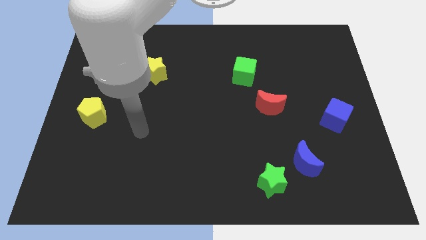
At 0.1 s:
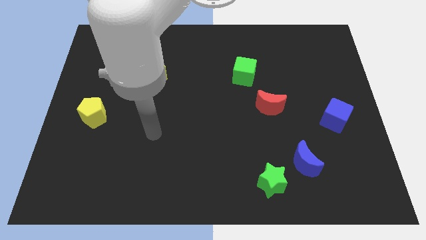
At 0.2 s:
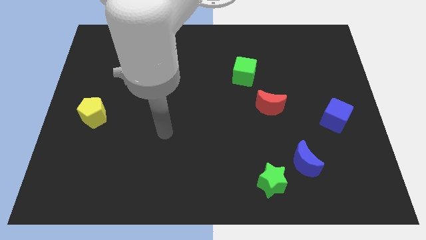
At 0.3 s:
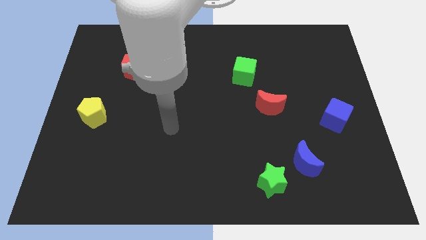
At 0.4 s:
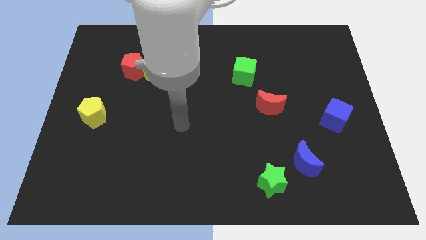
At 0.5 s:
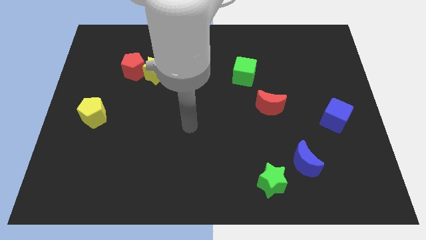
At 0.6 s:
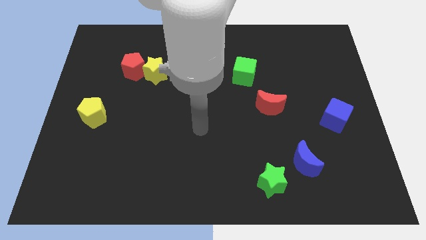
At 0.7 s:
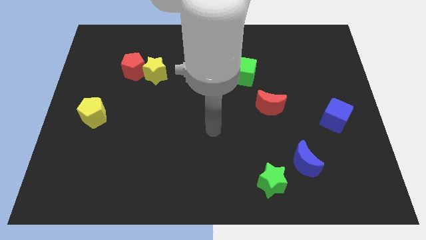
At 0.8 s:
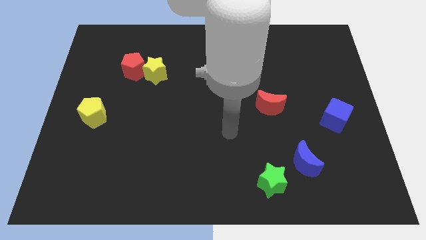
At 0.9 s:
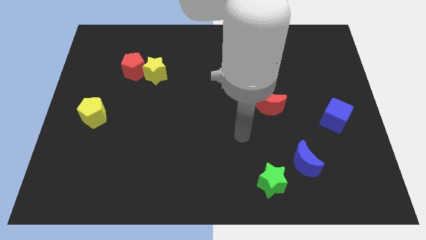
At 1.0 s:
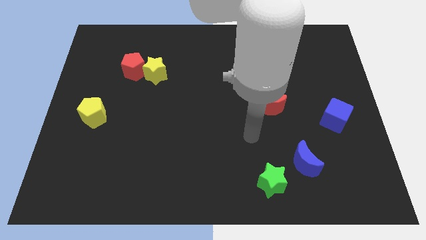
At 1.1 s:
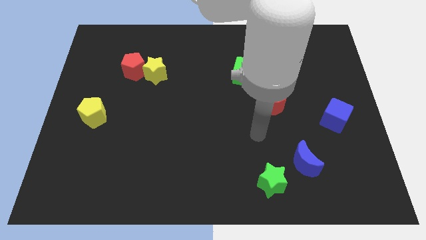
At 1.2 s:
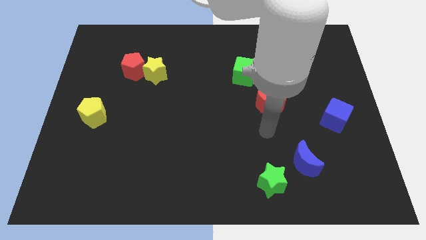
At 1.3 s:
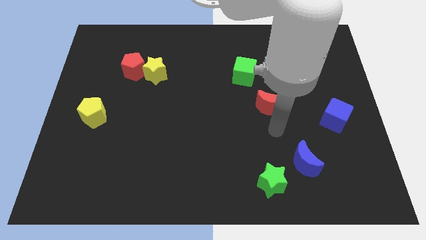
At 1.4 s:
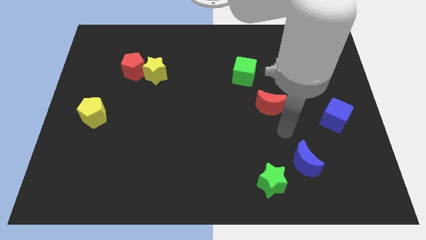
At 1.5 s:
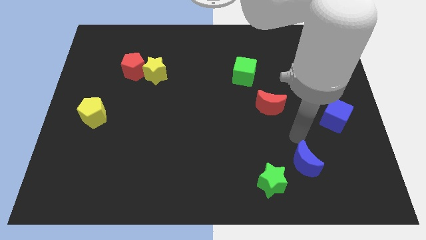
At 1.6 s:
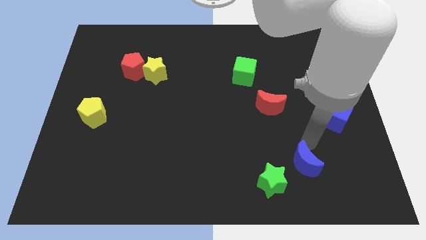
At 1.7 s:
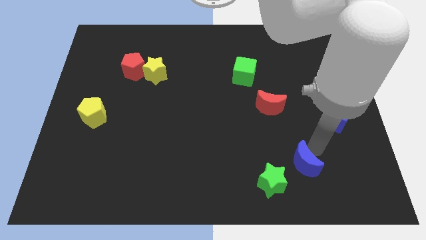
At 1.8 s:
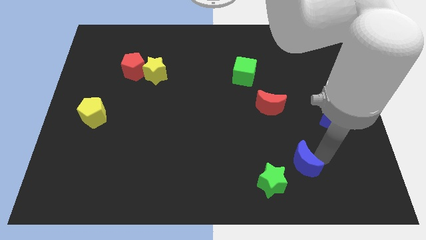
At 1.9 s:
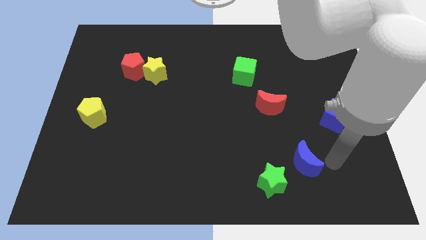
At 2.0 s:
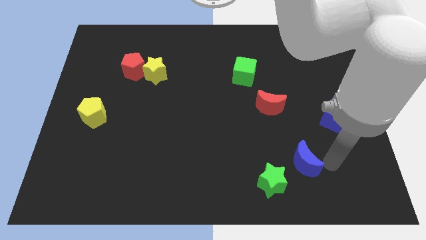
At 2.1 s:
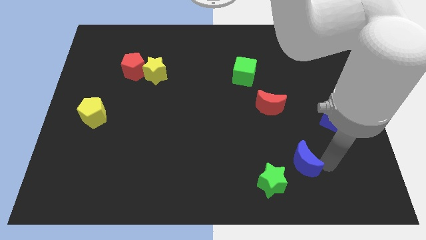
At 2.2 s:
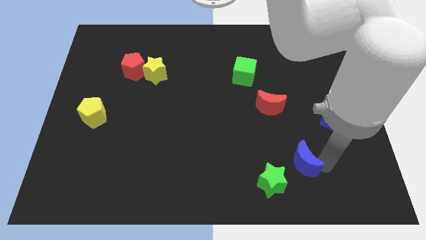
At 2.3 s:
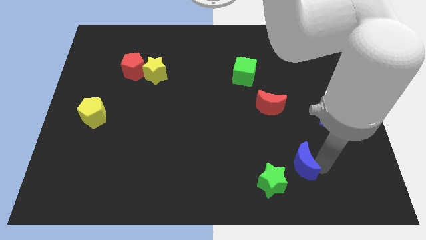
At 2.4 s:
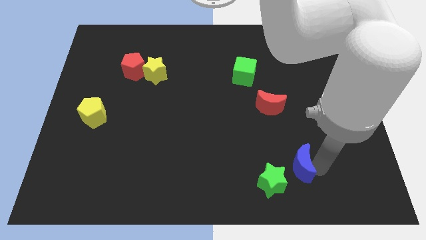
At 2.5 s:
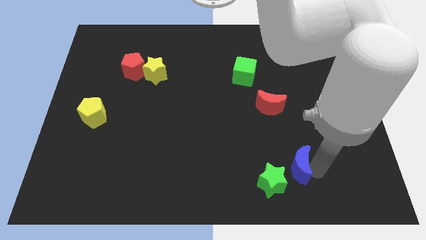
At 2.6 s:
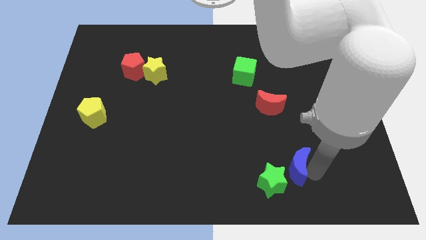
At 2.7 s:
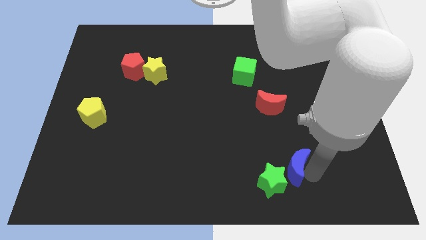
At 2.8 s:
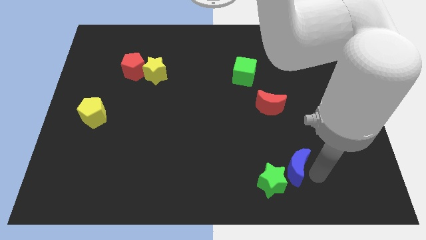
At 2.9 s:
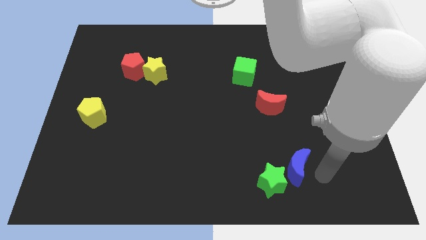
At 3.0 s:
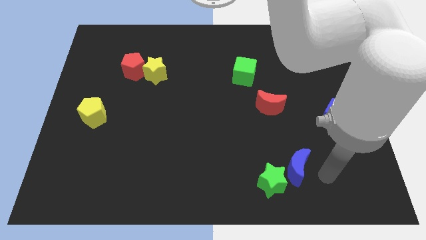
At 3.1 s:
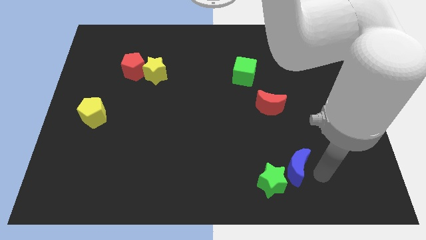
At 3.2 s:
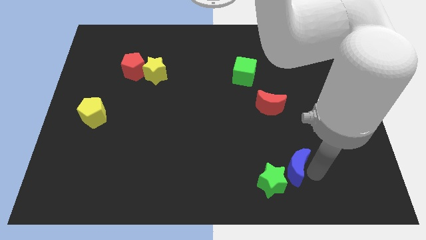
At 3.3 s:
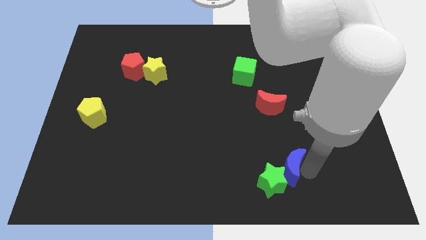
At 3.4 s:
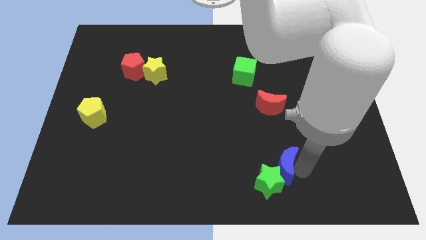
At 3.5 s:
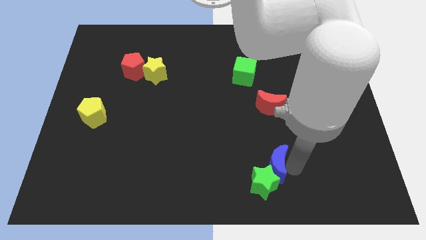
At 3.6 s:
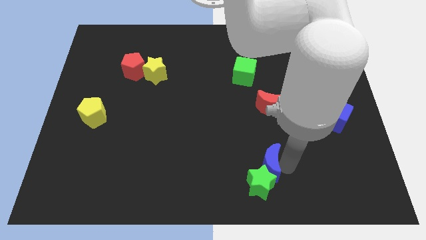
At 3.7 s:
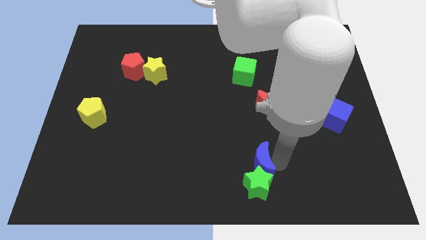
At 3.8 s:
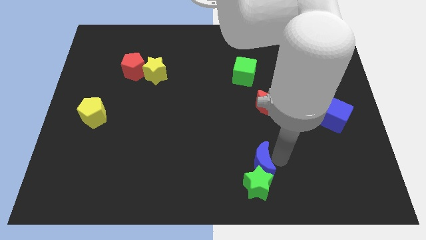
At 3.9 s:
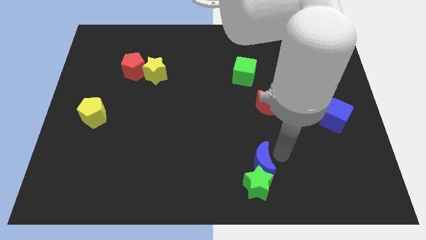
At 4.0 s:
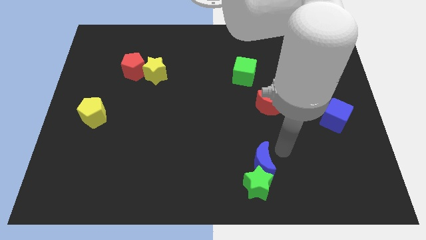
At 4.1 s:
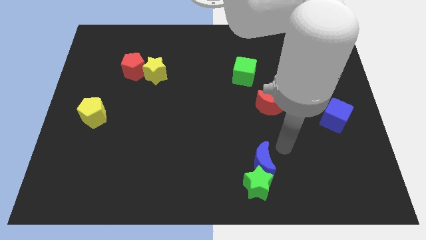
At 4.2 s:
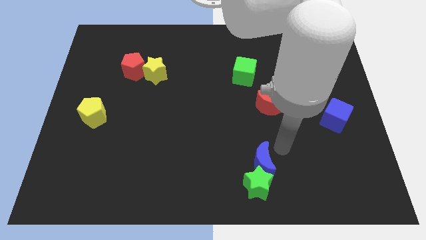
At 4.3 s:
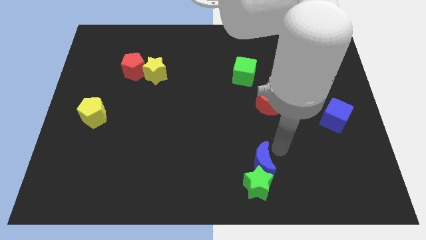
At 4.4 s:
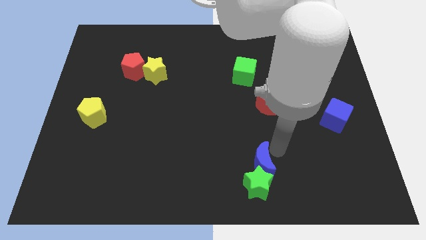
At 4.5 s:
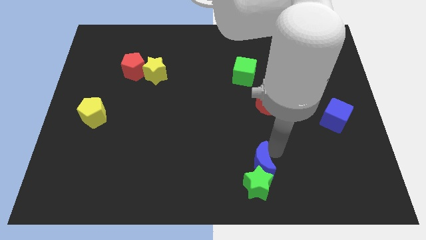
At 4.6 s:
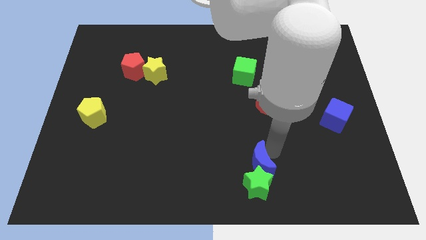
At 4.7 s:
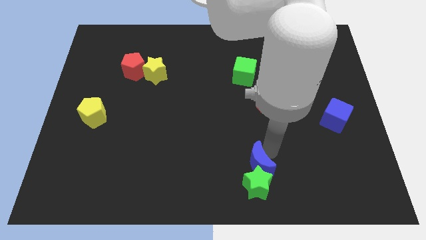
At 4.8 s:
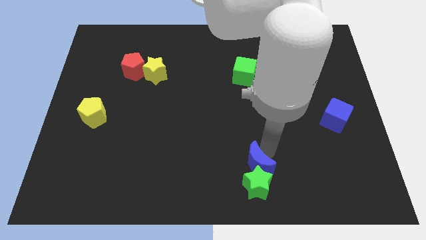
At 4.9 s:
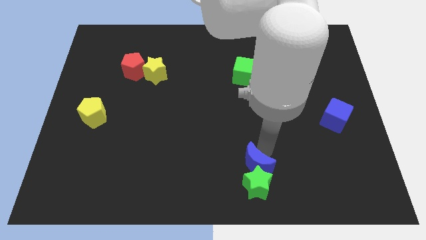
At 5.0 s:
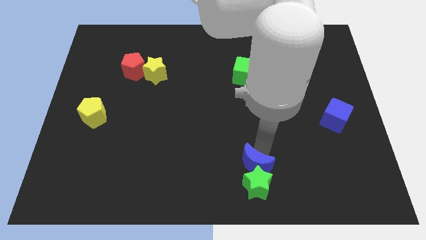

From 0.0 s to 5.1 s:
put the blue moon to the bottom side

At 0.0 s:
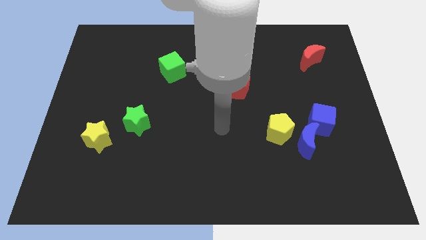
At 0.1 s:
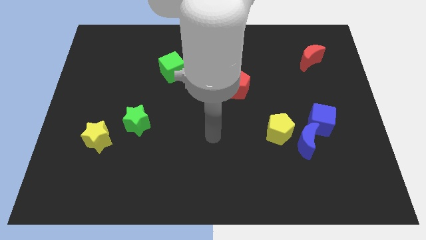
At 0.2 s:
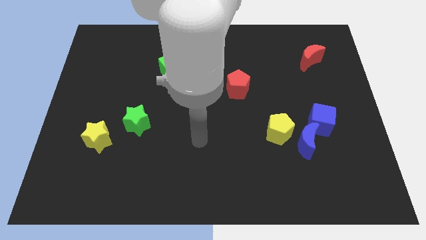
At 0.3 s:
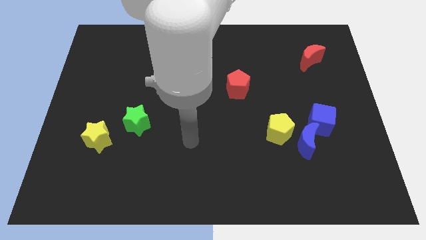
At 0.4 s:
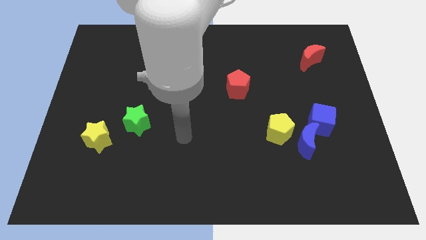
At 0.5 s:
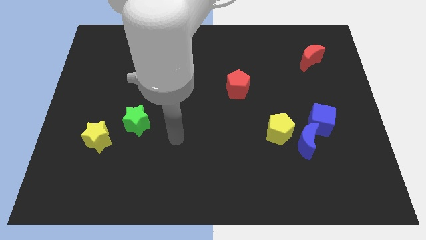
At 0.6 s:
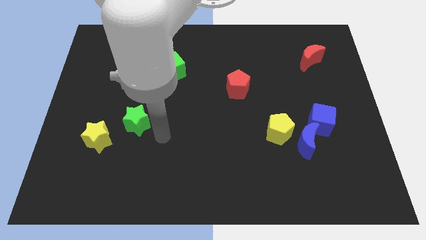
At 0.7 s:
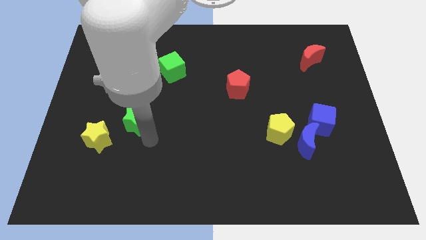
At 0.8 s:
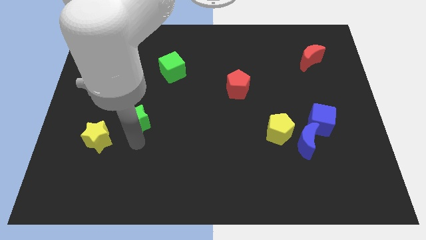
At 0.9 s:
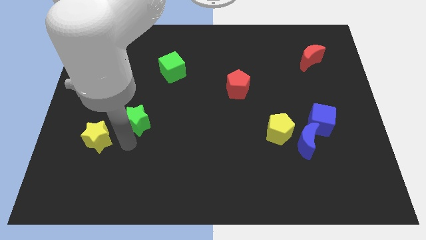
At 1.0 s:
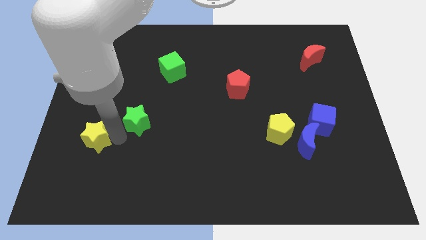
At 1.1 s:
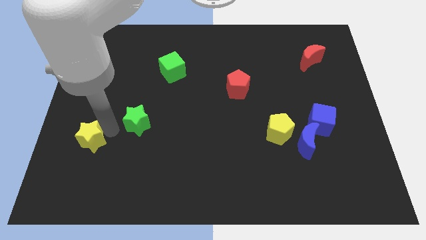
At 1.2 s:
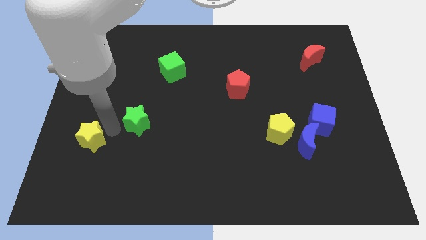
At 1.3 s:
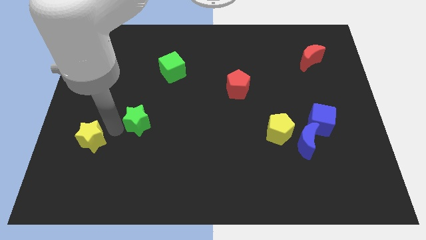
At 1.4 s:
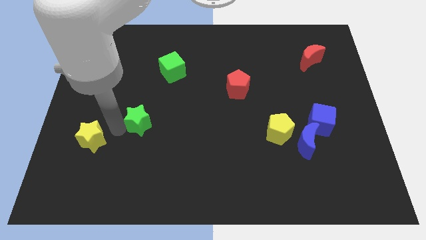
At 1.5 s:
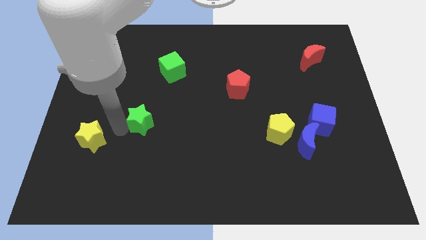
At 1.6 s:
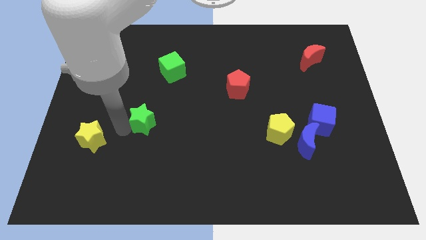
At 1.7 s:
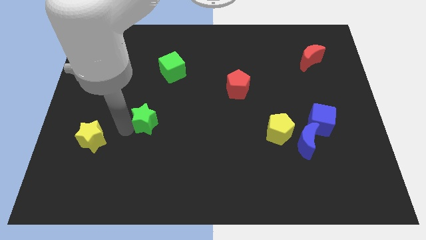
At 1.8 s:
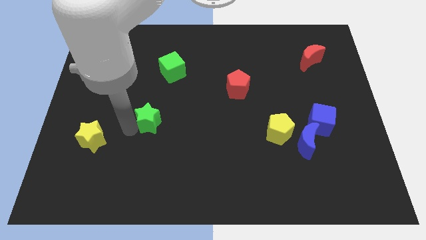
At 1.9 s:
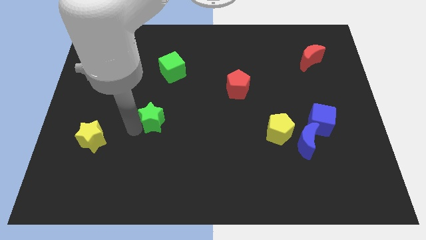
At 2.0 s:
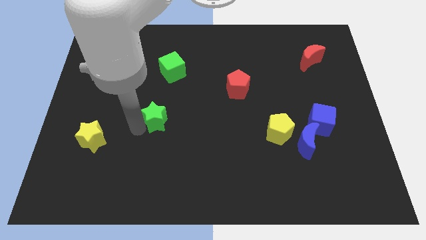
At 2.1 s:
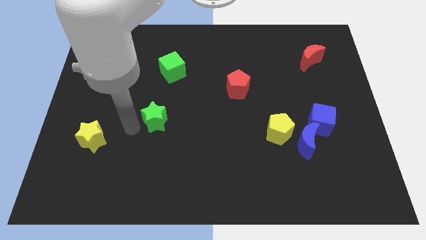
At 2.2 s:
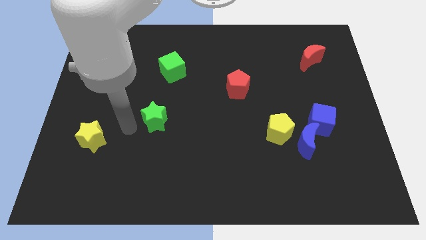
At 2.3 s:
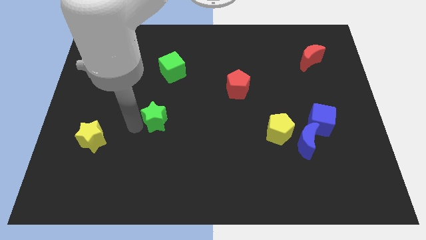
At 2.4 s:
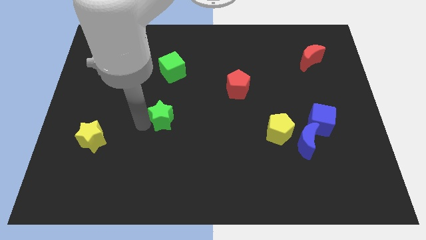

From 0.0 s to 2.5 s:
move the green star to the center
